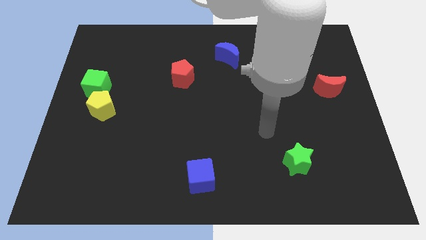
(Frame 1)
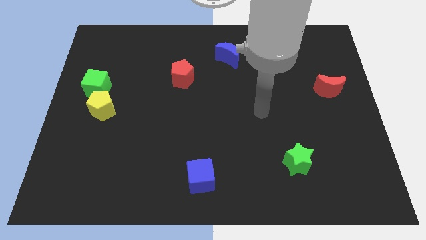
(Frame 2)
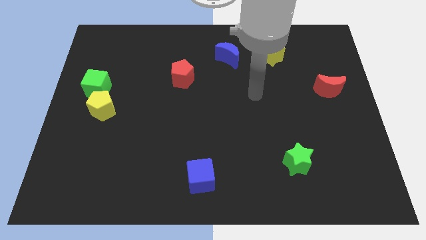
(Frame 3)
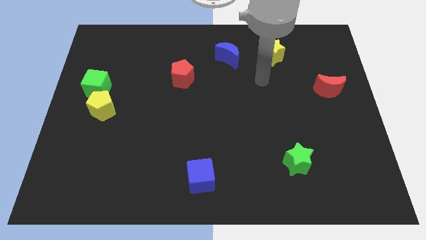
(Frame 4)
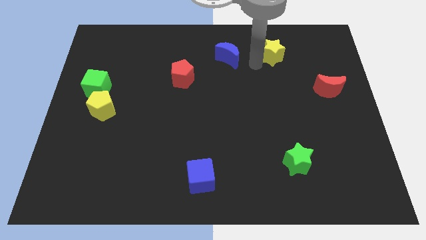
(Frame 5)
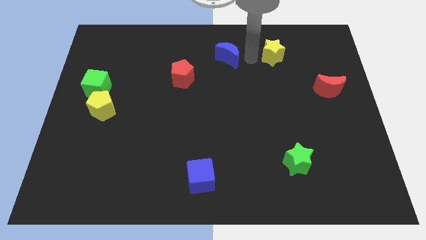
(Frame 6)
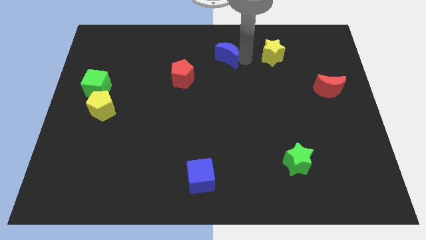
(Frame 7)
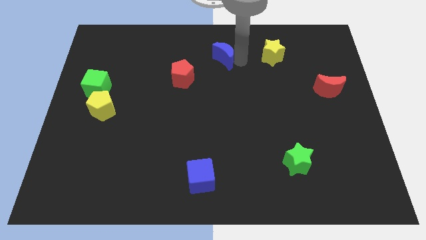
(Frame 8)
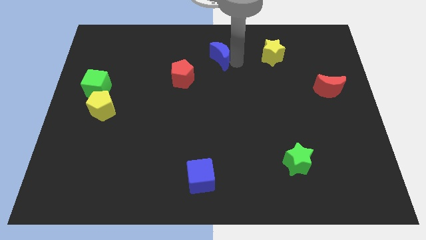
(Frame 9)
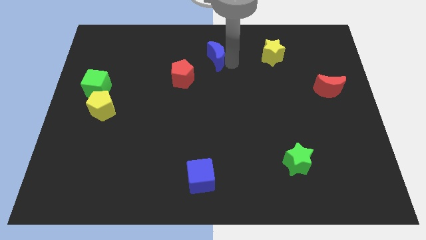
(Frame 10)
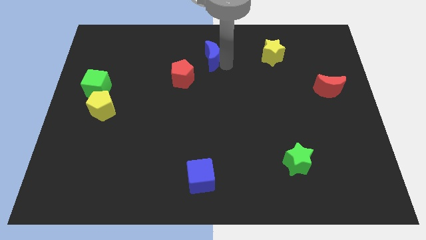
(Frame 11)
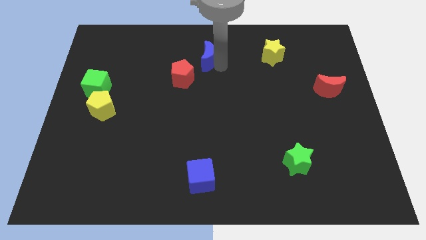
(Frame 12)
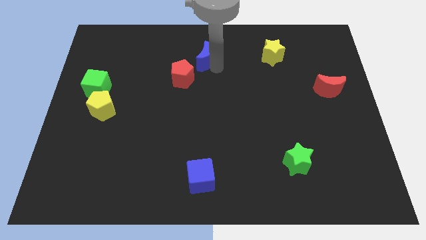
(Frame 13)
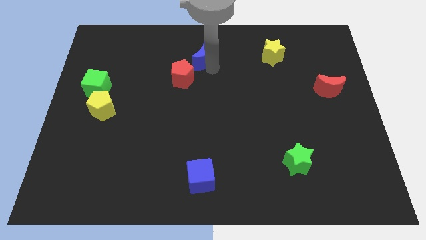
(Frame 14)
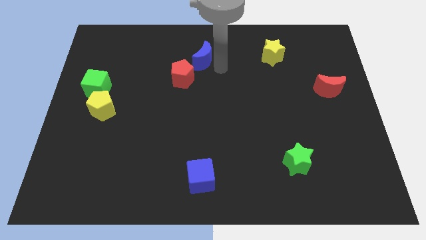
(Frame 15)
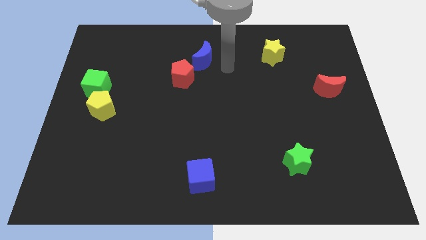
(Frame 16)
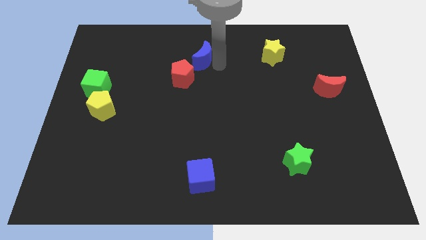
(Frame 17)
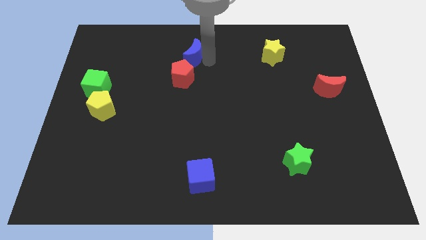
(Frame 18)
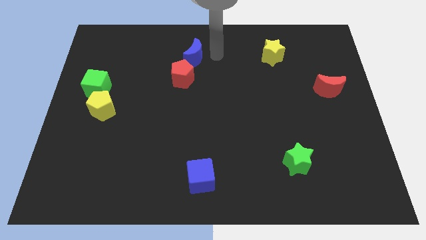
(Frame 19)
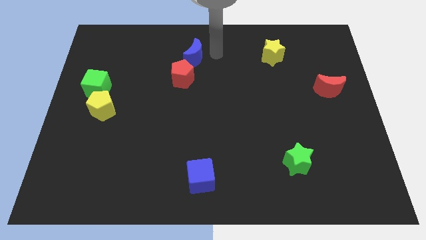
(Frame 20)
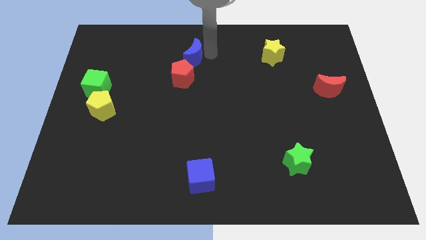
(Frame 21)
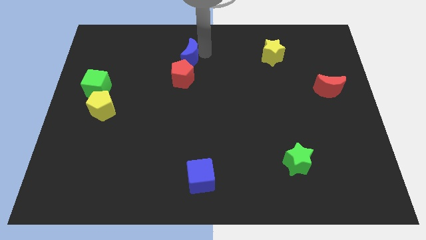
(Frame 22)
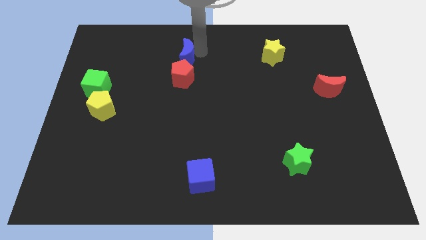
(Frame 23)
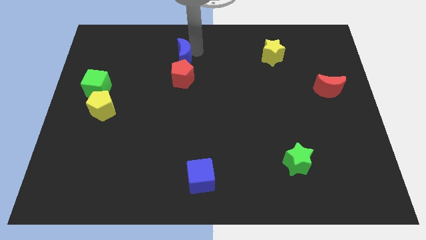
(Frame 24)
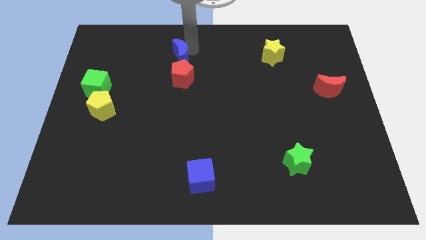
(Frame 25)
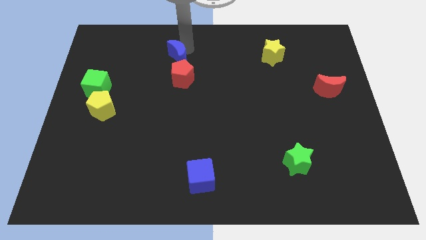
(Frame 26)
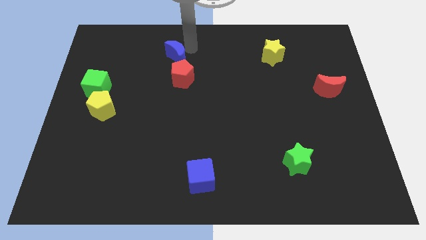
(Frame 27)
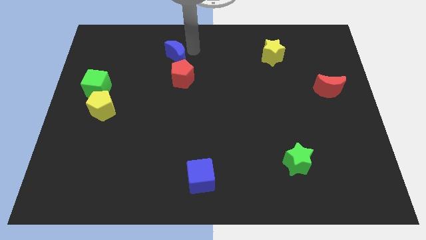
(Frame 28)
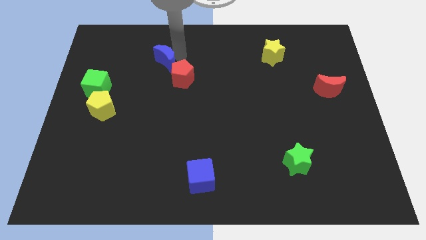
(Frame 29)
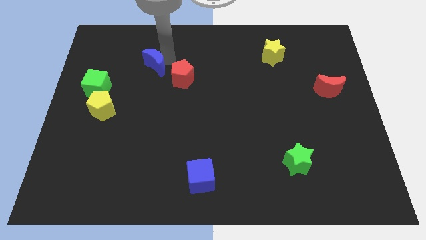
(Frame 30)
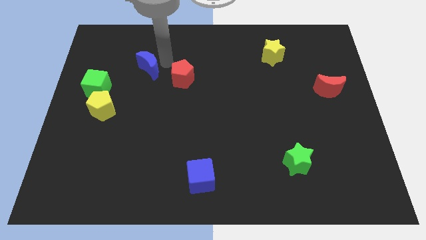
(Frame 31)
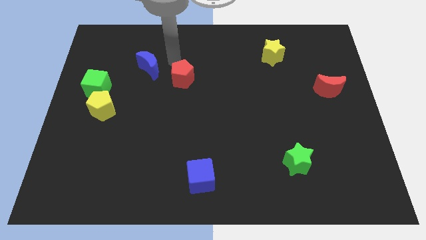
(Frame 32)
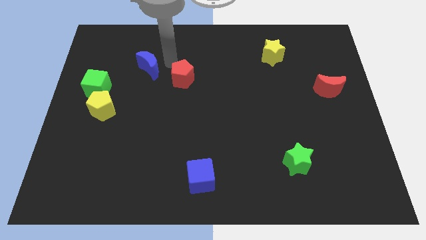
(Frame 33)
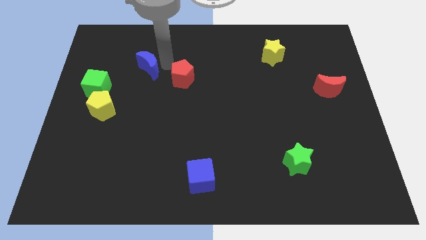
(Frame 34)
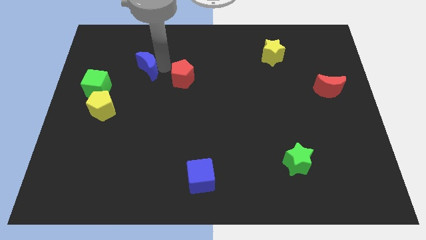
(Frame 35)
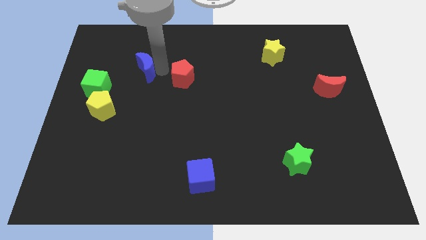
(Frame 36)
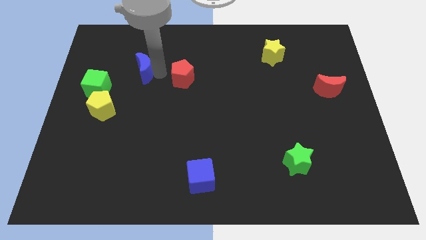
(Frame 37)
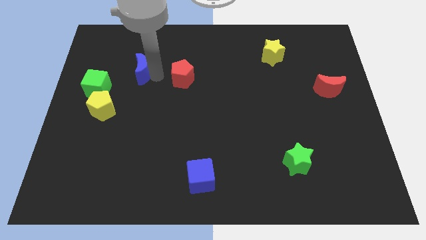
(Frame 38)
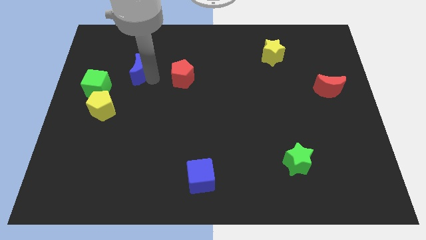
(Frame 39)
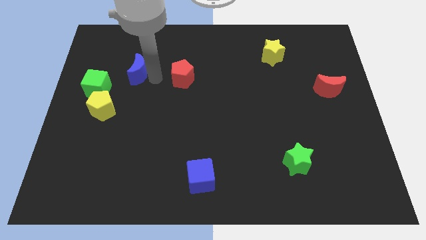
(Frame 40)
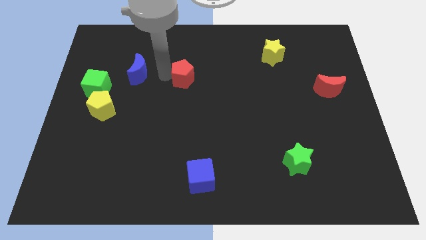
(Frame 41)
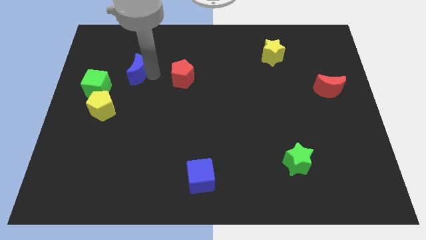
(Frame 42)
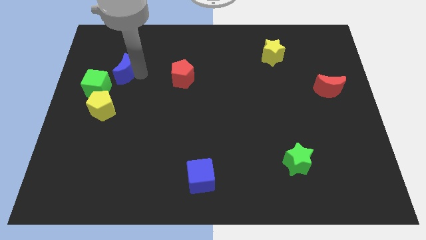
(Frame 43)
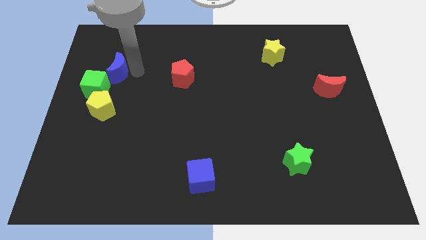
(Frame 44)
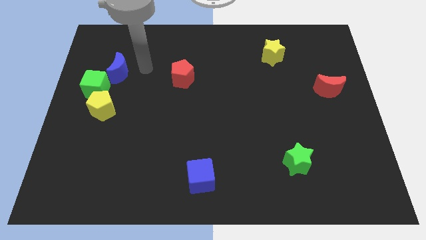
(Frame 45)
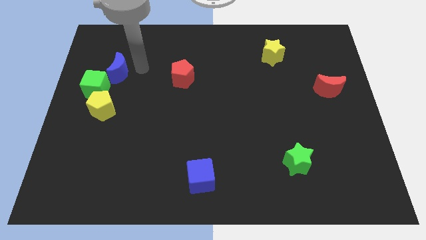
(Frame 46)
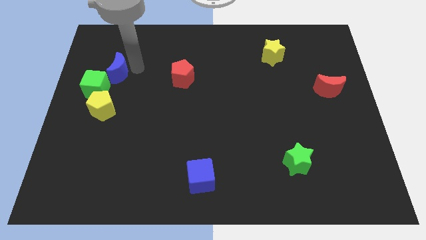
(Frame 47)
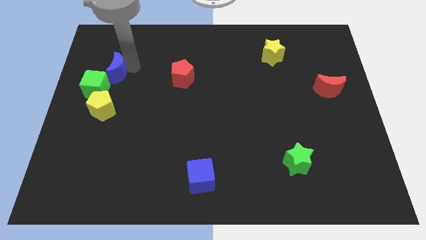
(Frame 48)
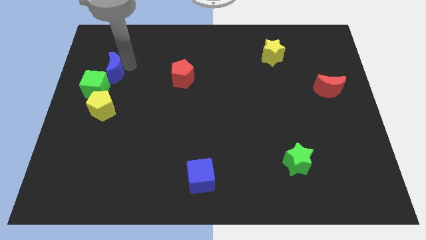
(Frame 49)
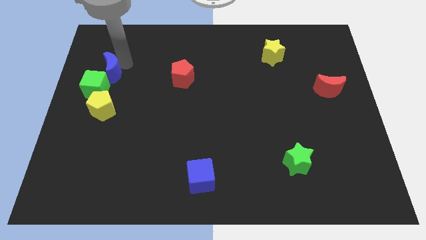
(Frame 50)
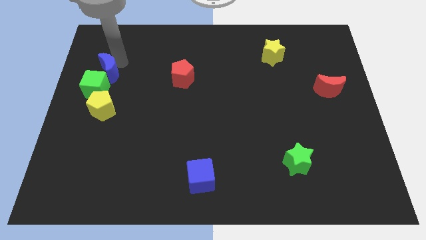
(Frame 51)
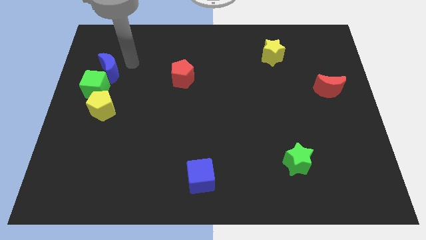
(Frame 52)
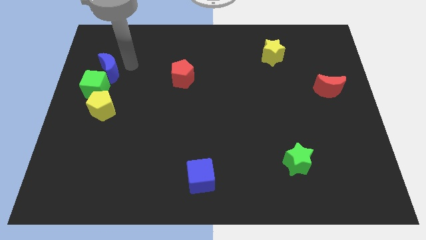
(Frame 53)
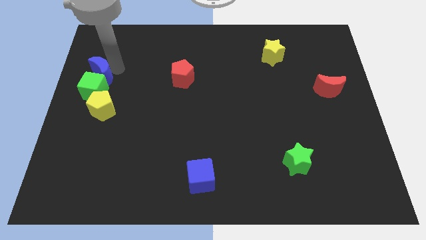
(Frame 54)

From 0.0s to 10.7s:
move the blue moon to the left side of the board

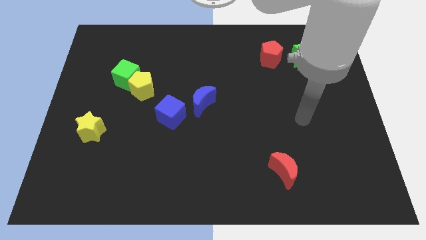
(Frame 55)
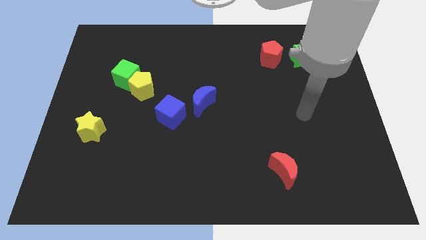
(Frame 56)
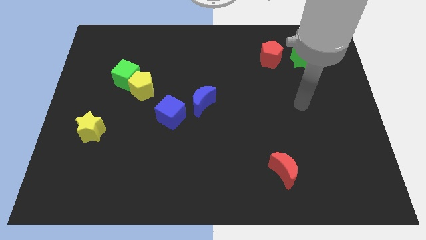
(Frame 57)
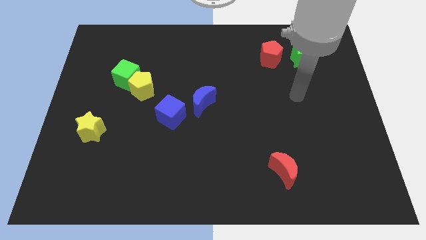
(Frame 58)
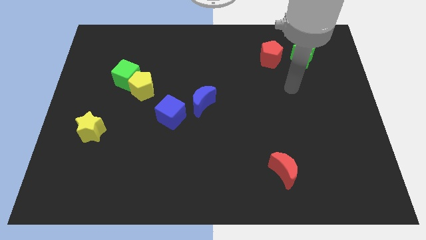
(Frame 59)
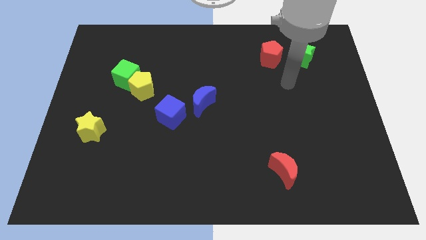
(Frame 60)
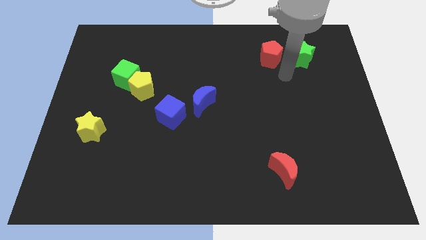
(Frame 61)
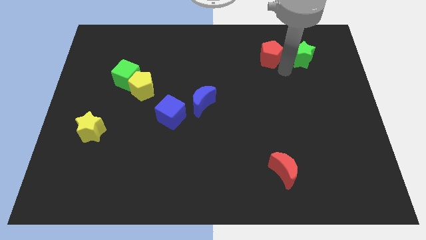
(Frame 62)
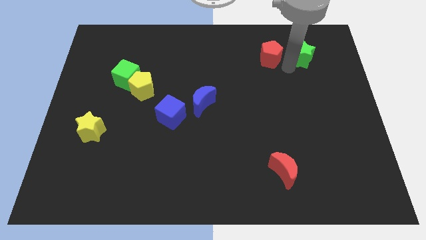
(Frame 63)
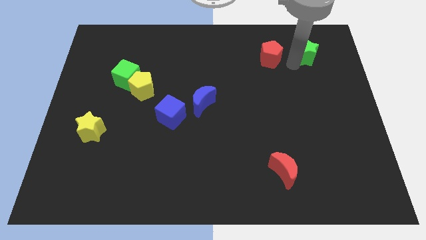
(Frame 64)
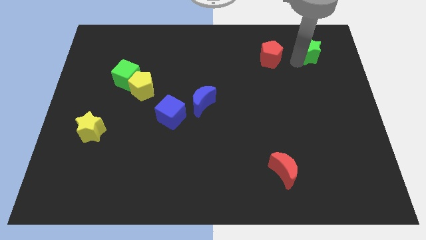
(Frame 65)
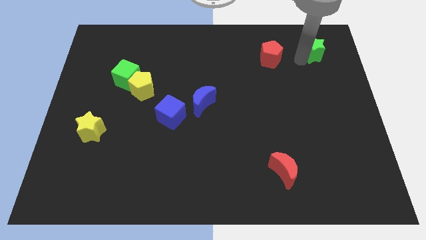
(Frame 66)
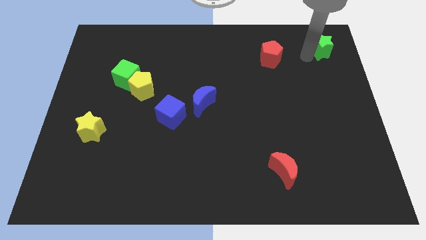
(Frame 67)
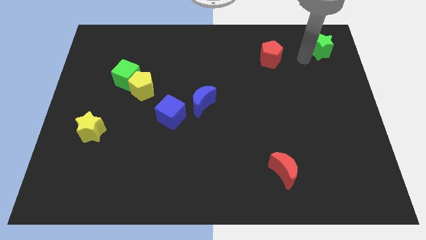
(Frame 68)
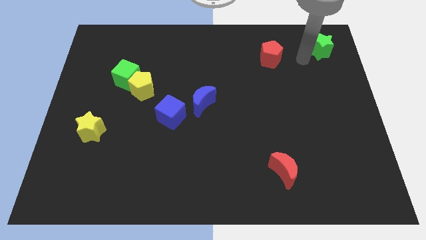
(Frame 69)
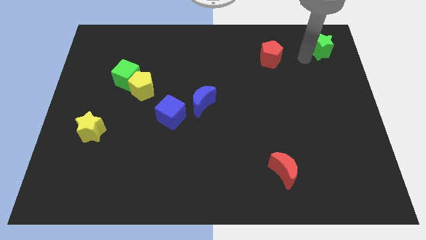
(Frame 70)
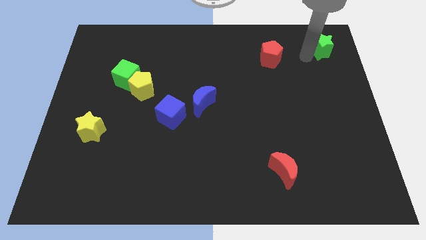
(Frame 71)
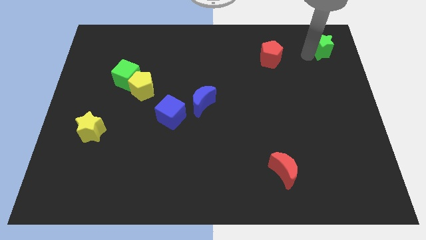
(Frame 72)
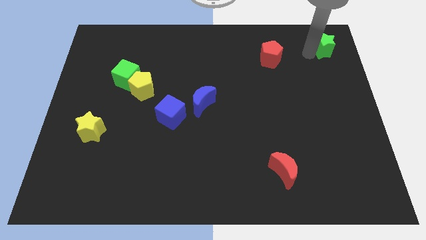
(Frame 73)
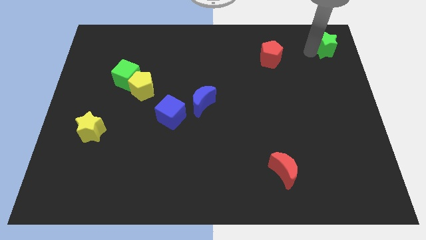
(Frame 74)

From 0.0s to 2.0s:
move the green star to the upper right corner
